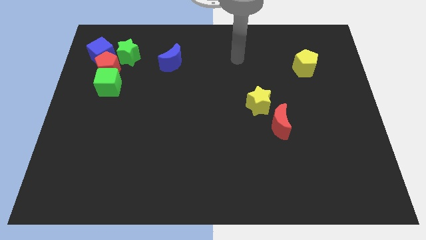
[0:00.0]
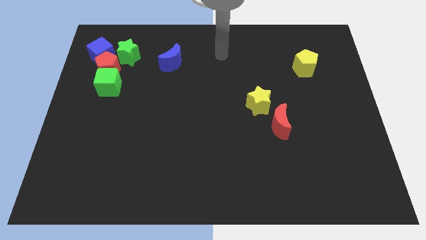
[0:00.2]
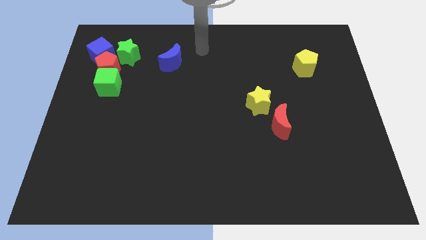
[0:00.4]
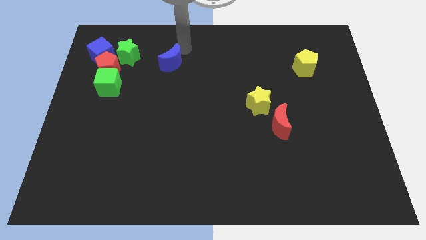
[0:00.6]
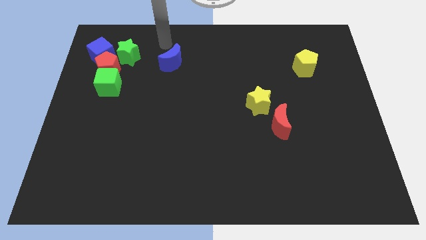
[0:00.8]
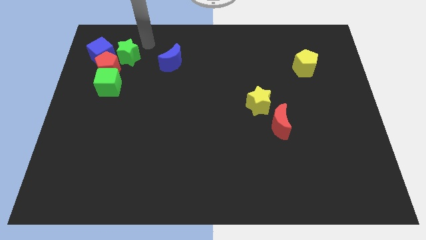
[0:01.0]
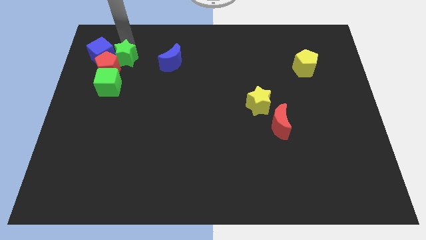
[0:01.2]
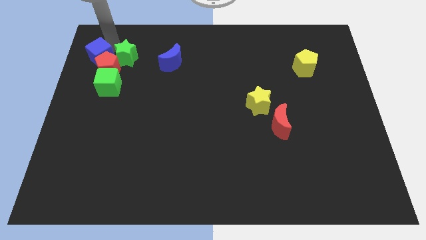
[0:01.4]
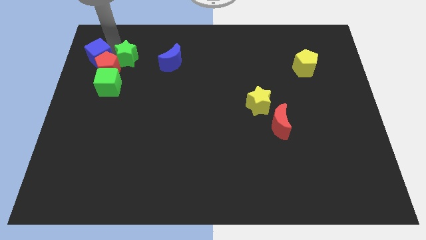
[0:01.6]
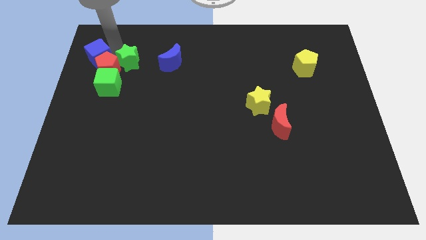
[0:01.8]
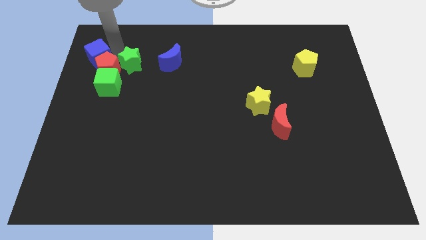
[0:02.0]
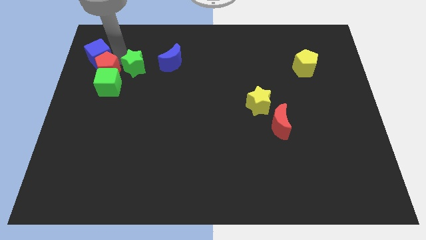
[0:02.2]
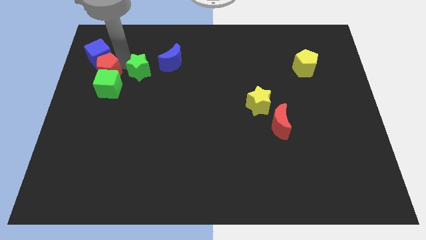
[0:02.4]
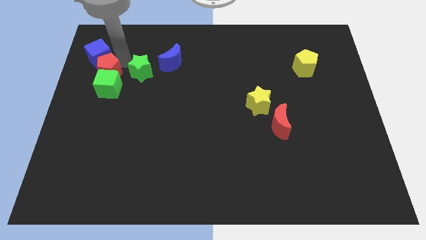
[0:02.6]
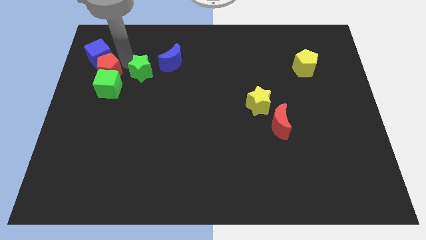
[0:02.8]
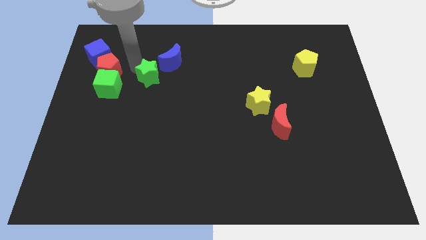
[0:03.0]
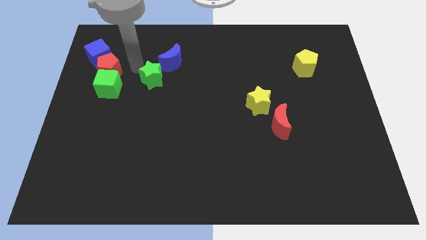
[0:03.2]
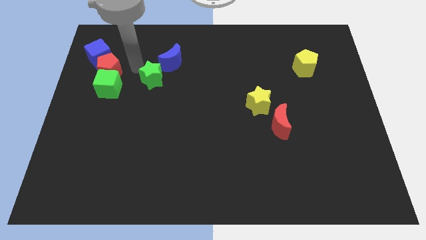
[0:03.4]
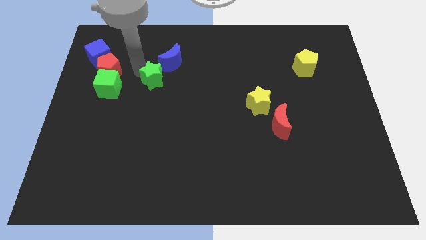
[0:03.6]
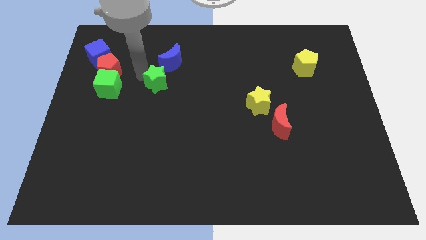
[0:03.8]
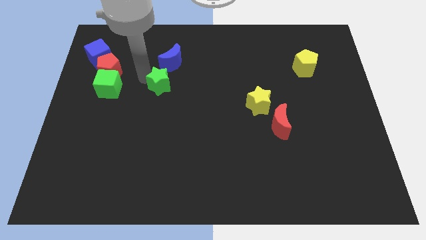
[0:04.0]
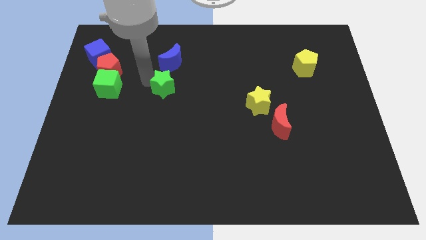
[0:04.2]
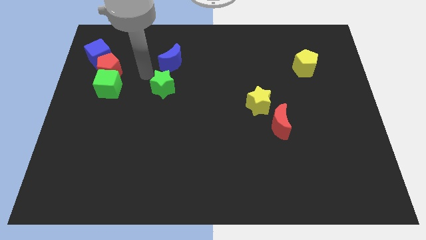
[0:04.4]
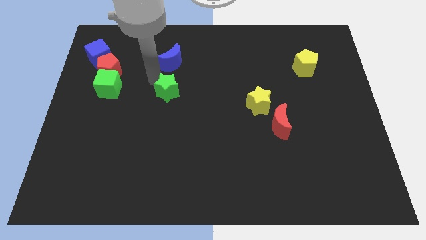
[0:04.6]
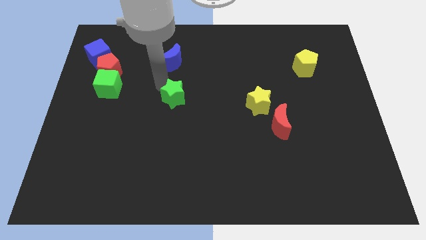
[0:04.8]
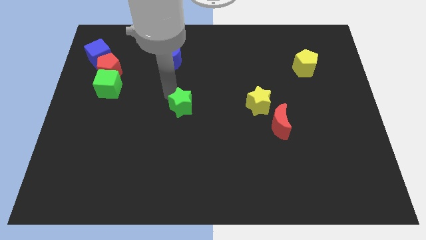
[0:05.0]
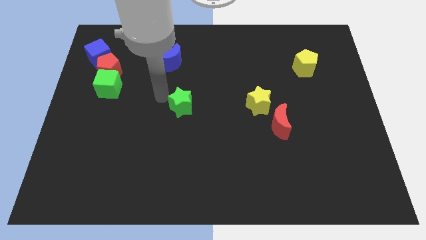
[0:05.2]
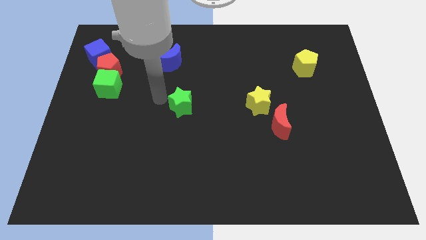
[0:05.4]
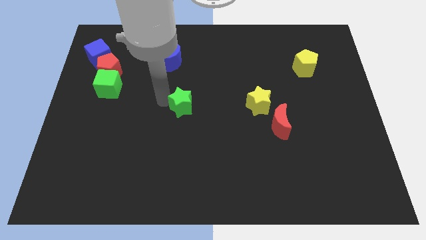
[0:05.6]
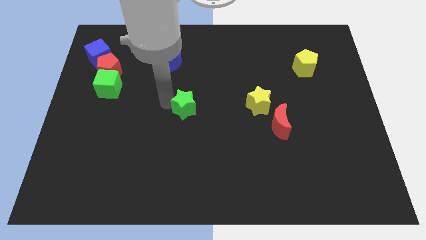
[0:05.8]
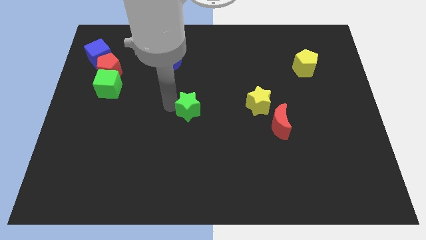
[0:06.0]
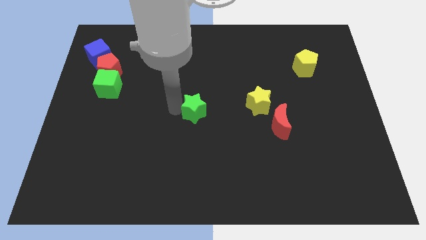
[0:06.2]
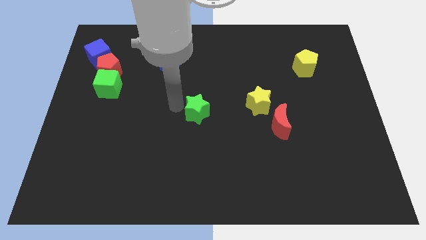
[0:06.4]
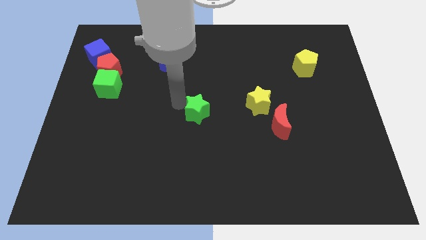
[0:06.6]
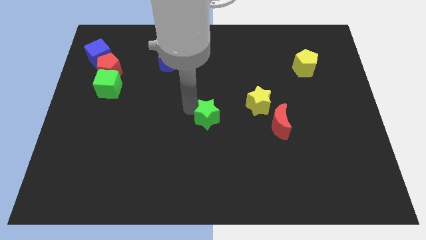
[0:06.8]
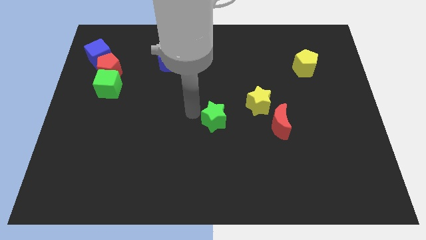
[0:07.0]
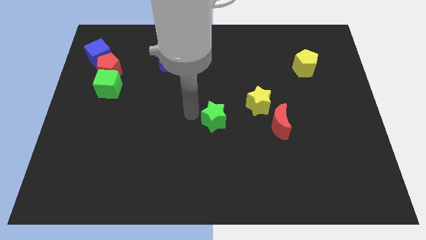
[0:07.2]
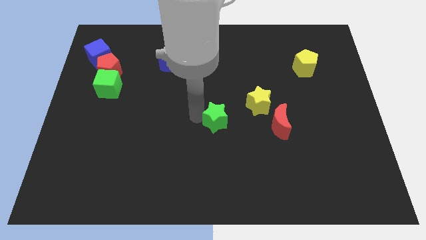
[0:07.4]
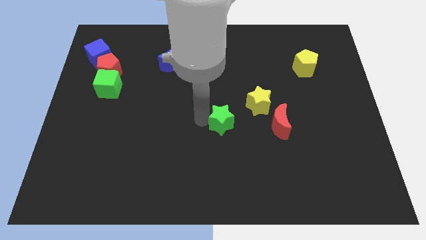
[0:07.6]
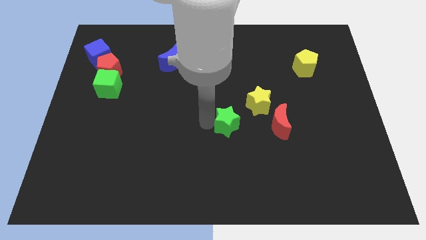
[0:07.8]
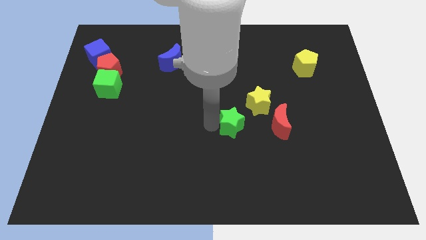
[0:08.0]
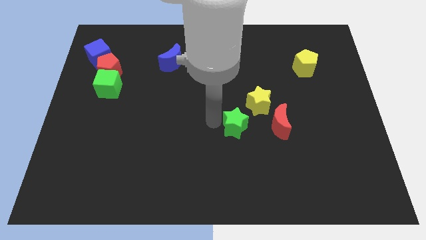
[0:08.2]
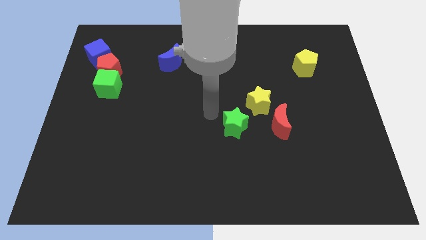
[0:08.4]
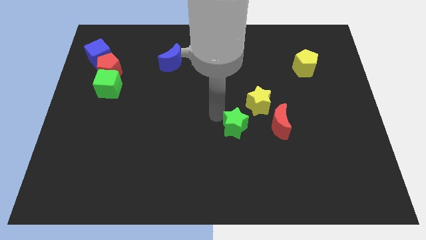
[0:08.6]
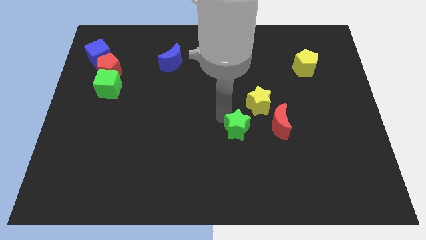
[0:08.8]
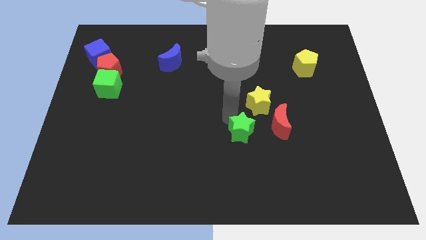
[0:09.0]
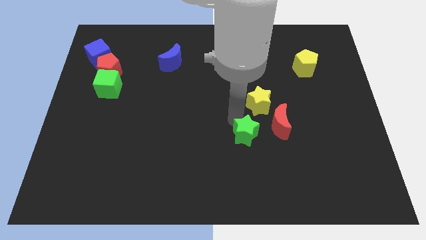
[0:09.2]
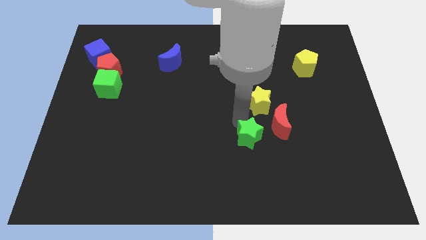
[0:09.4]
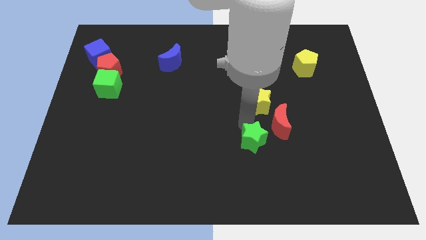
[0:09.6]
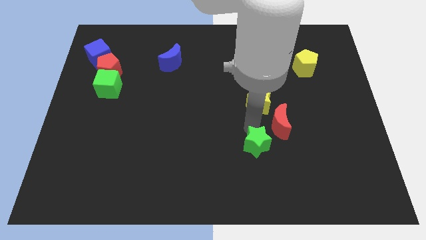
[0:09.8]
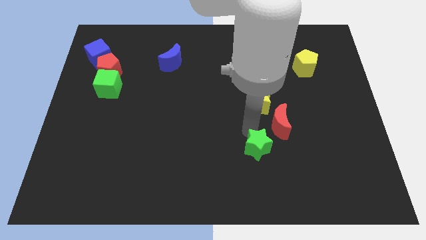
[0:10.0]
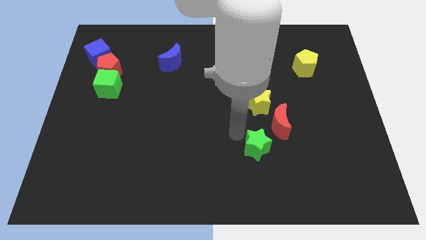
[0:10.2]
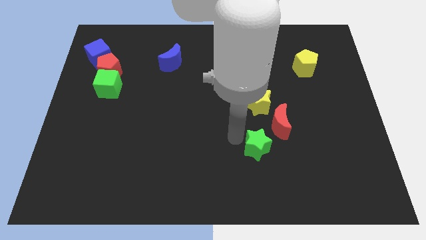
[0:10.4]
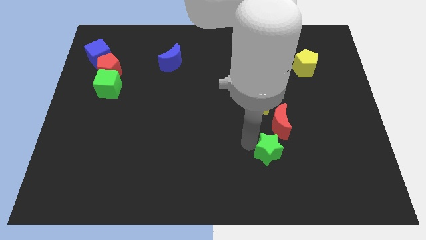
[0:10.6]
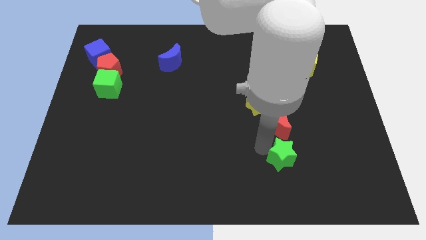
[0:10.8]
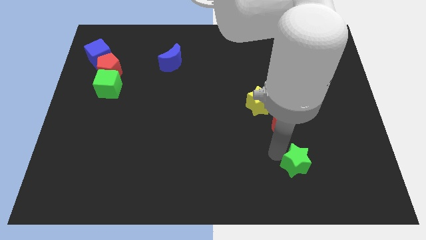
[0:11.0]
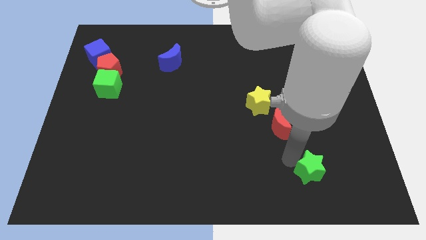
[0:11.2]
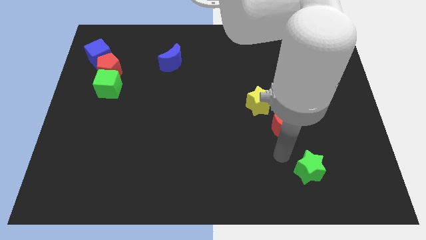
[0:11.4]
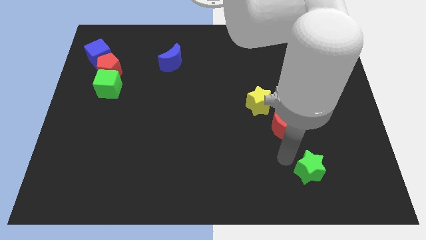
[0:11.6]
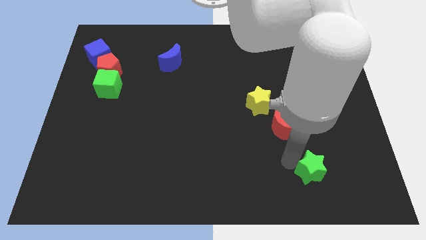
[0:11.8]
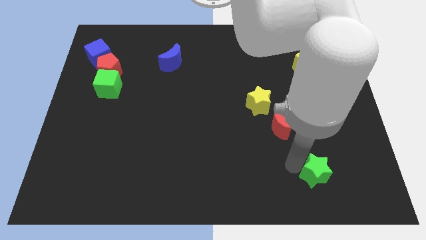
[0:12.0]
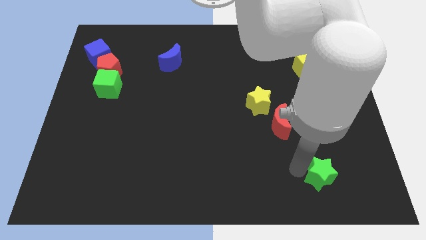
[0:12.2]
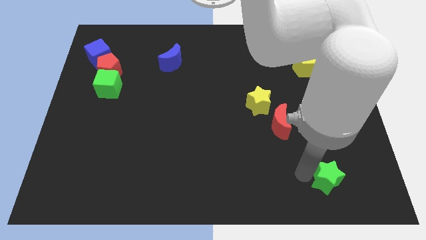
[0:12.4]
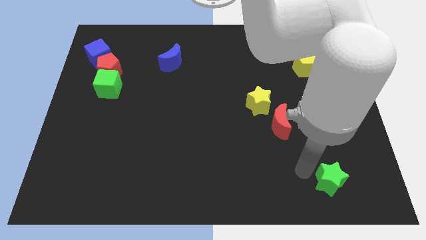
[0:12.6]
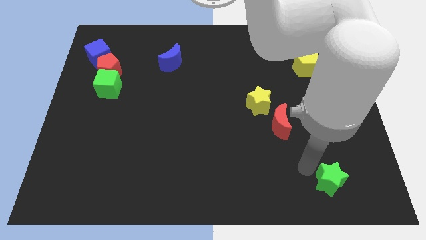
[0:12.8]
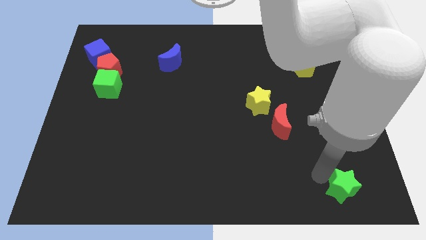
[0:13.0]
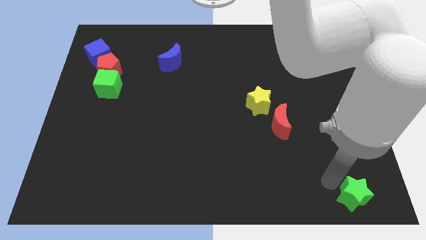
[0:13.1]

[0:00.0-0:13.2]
put the green star to the lower right corner
